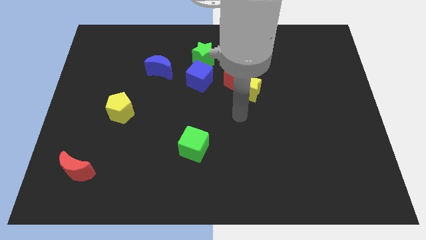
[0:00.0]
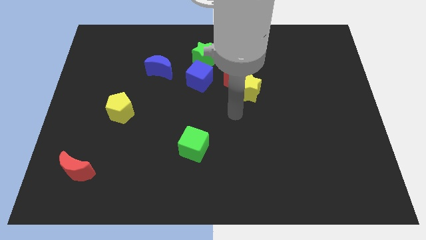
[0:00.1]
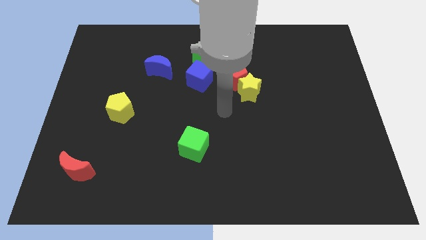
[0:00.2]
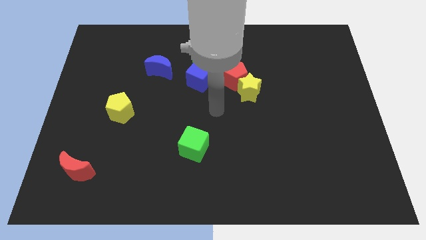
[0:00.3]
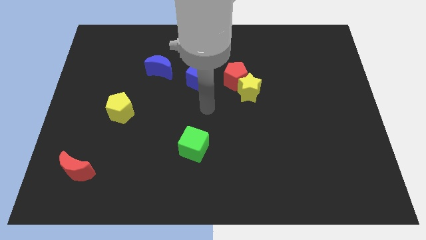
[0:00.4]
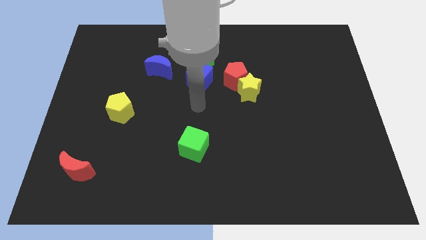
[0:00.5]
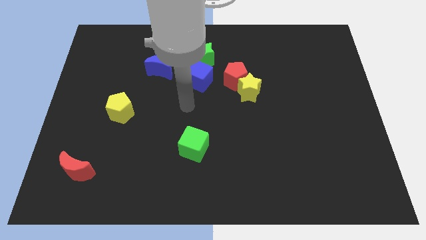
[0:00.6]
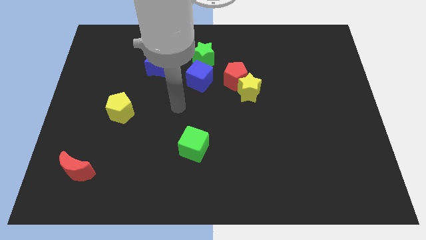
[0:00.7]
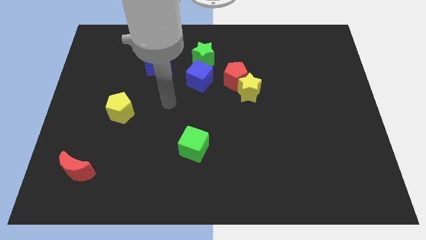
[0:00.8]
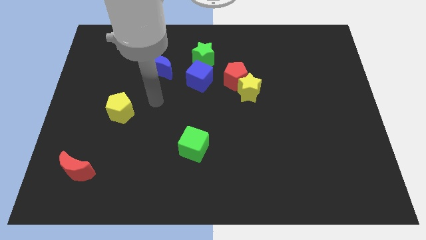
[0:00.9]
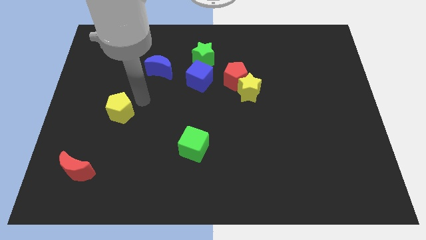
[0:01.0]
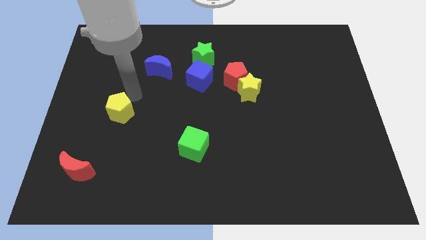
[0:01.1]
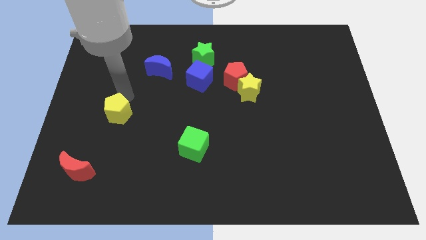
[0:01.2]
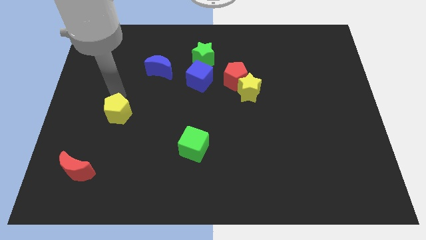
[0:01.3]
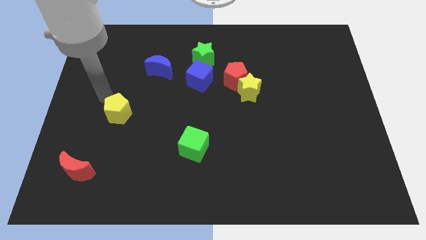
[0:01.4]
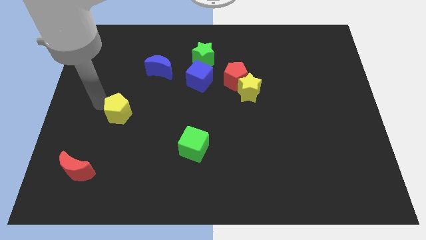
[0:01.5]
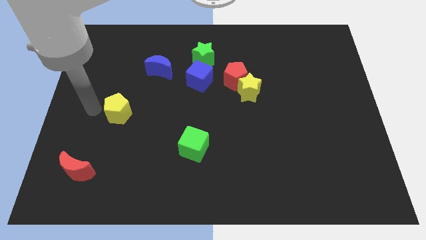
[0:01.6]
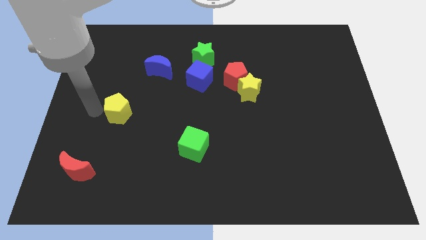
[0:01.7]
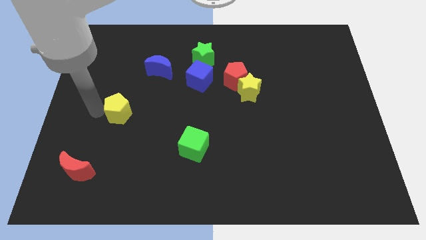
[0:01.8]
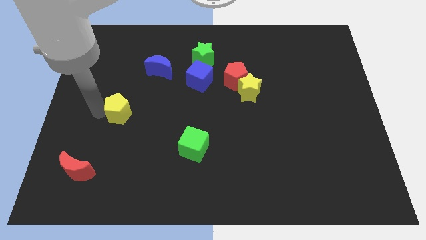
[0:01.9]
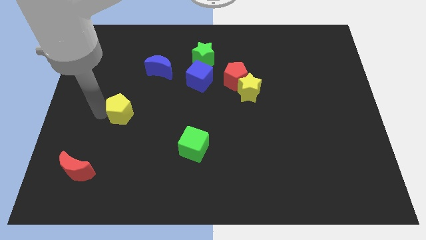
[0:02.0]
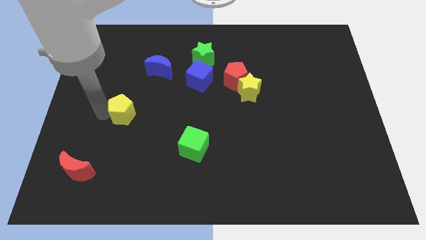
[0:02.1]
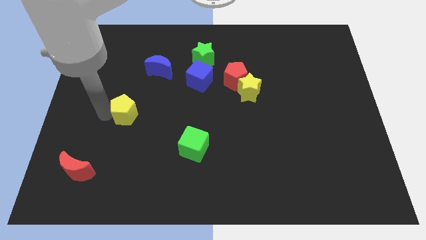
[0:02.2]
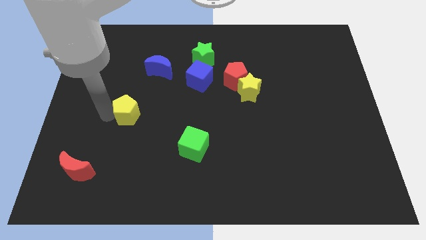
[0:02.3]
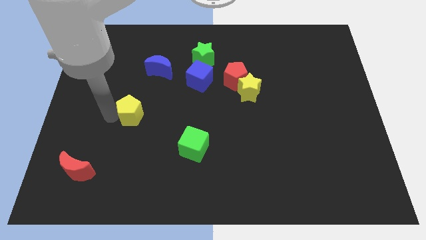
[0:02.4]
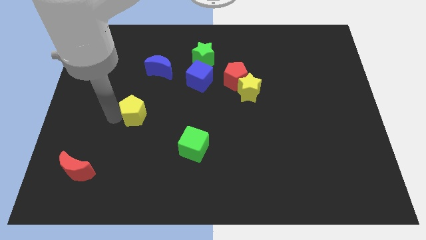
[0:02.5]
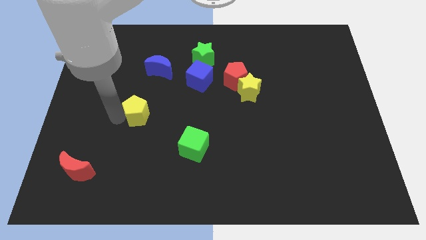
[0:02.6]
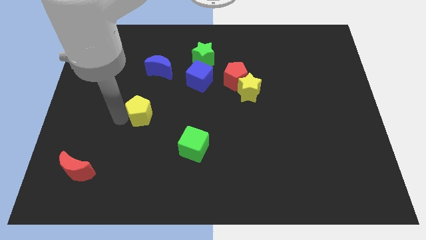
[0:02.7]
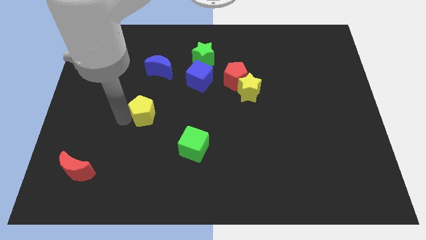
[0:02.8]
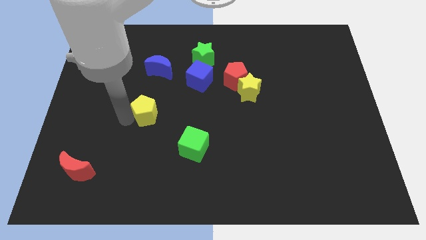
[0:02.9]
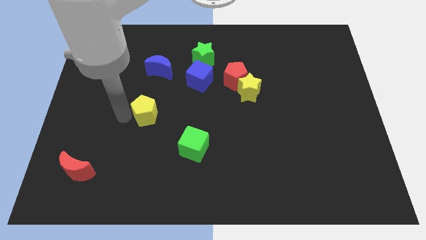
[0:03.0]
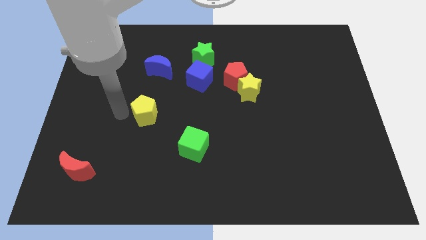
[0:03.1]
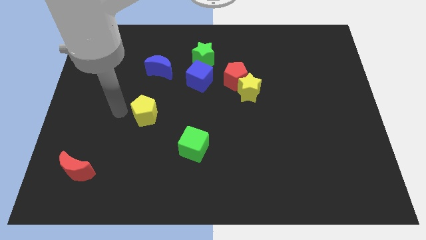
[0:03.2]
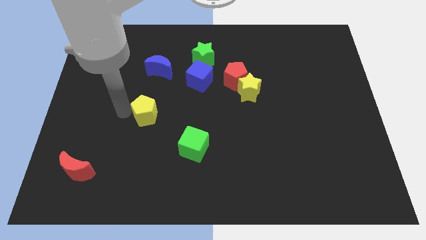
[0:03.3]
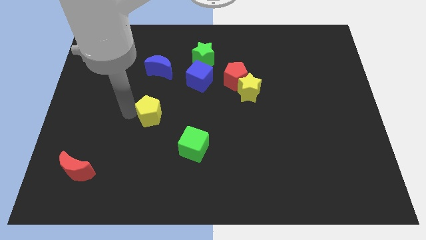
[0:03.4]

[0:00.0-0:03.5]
slightly slide the yellow pentagon to the right

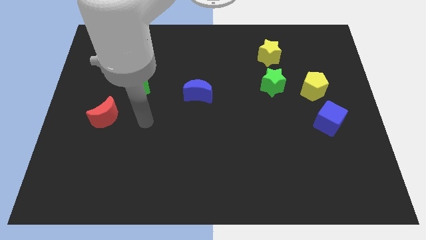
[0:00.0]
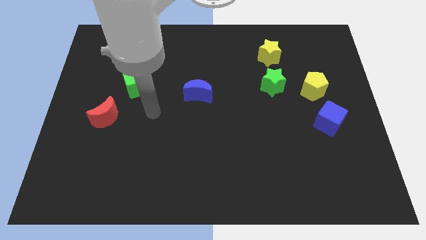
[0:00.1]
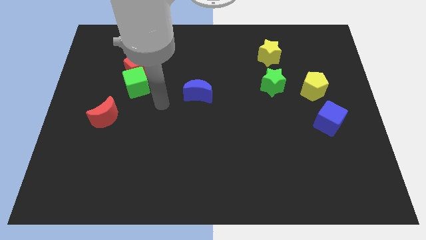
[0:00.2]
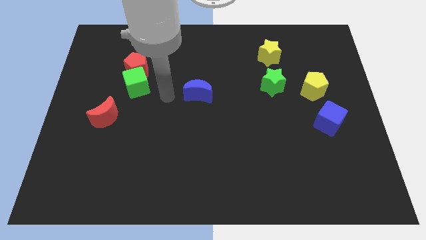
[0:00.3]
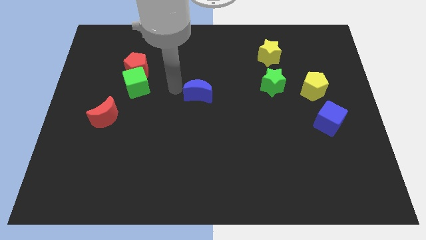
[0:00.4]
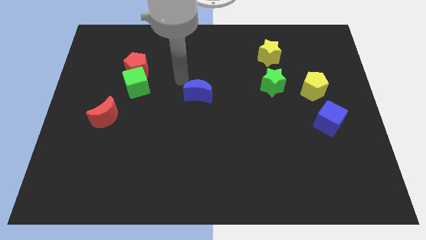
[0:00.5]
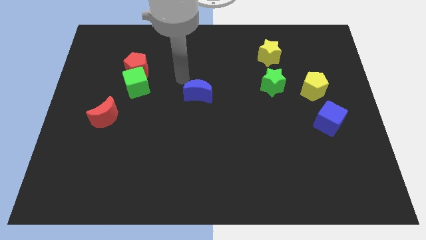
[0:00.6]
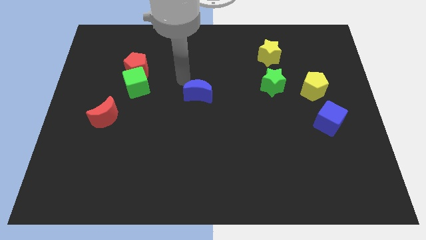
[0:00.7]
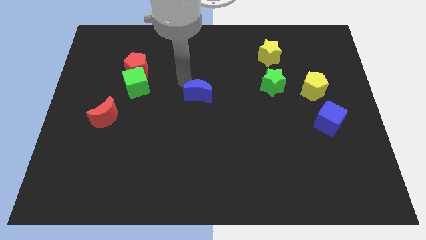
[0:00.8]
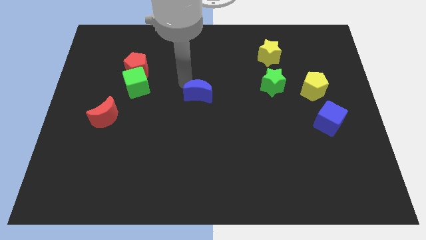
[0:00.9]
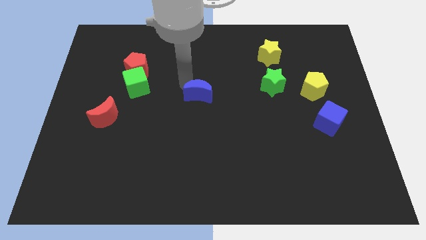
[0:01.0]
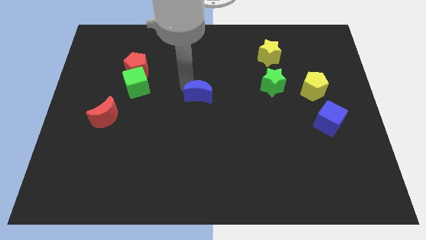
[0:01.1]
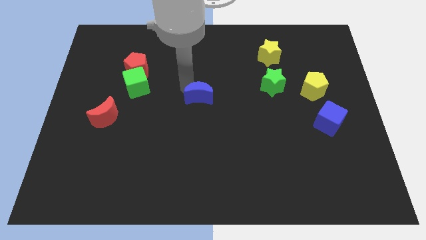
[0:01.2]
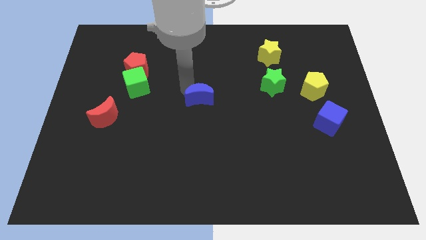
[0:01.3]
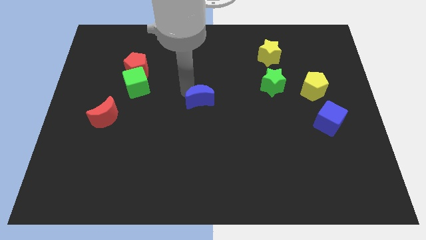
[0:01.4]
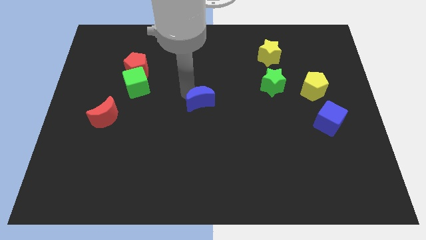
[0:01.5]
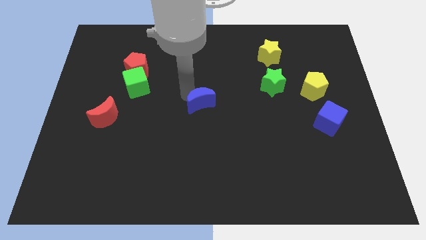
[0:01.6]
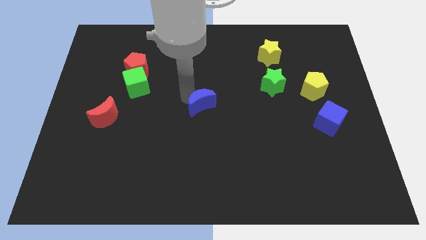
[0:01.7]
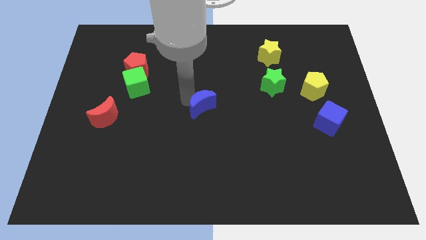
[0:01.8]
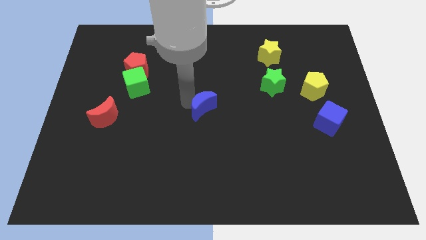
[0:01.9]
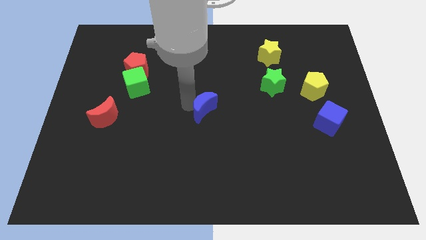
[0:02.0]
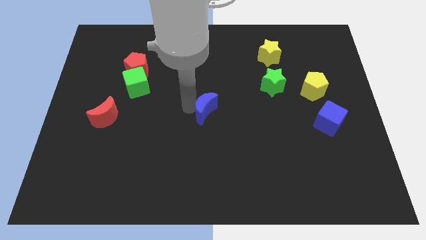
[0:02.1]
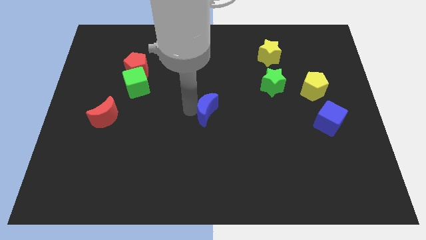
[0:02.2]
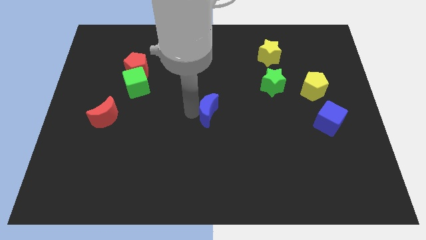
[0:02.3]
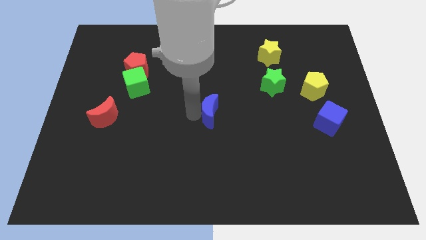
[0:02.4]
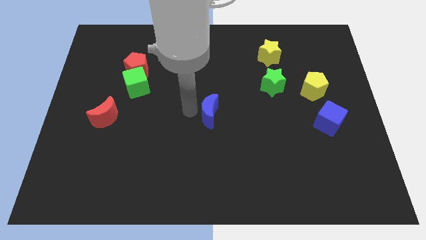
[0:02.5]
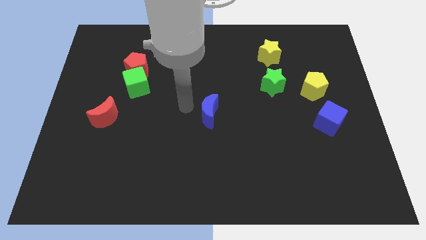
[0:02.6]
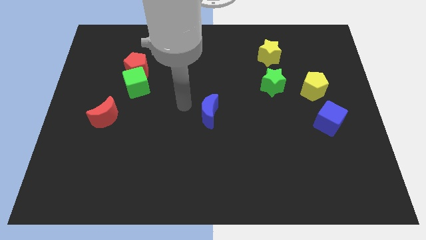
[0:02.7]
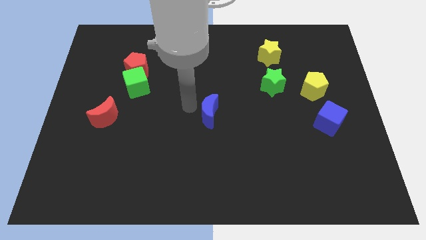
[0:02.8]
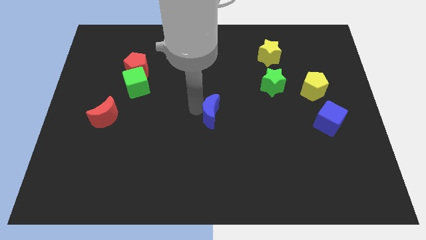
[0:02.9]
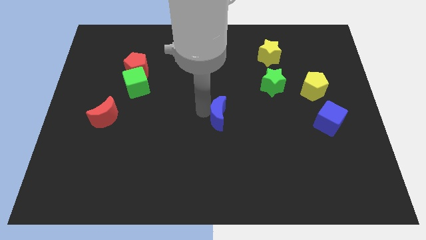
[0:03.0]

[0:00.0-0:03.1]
slightly push the blue moon down and to the right

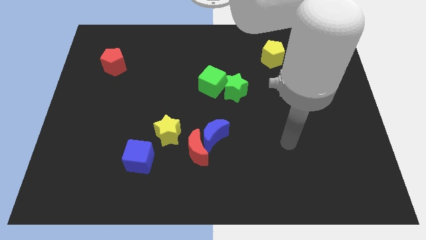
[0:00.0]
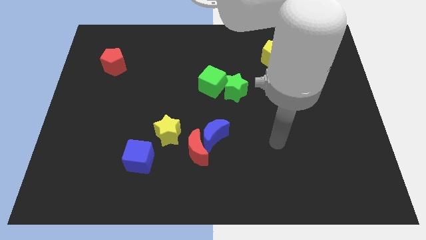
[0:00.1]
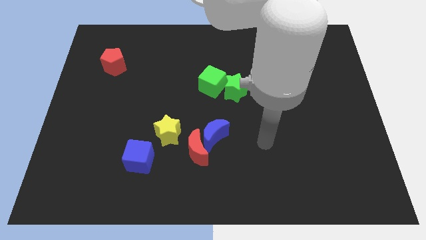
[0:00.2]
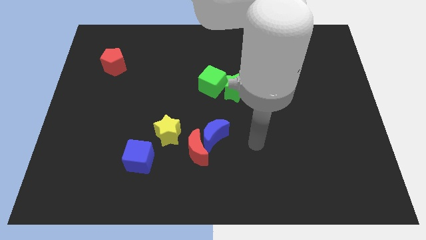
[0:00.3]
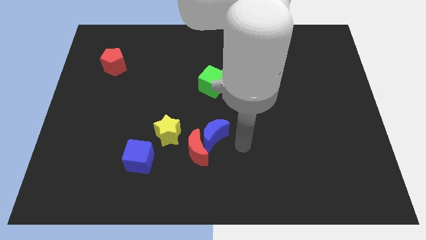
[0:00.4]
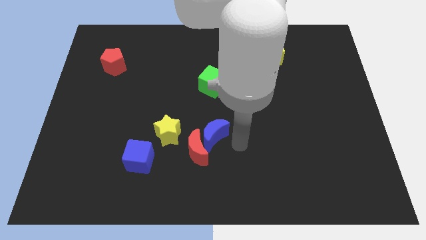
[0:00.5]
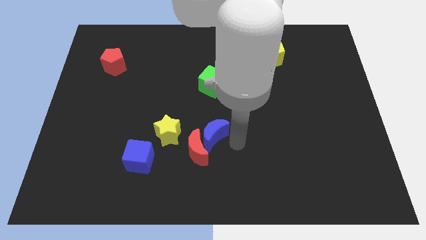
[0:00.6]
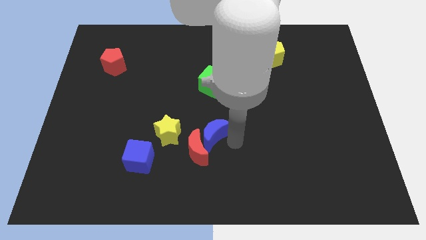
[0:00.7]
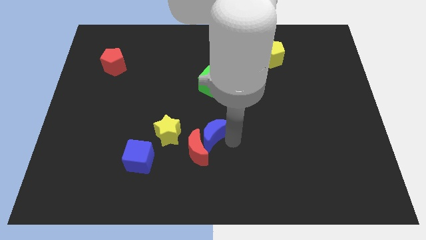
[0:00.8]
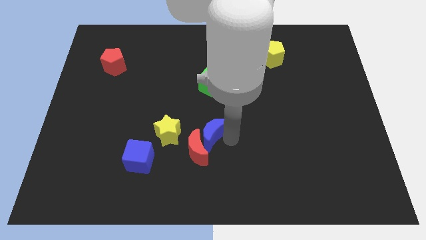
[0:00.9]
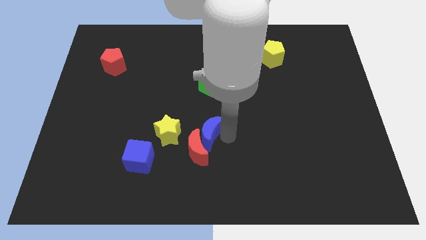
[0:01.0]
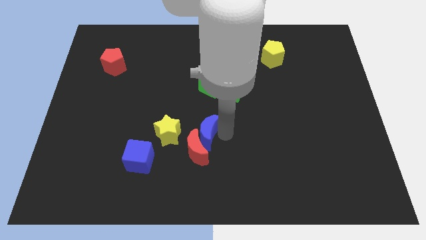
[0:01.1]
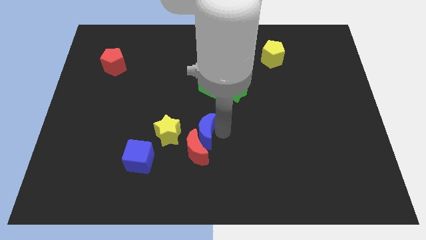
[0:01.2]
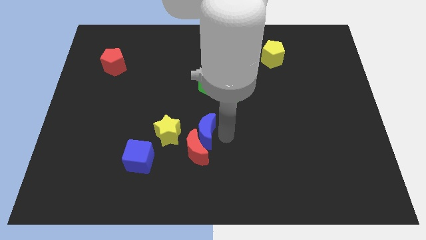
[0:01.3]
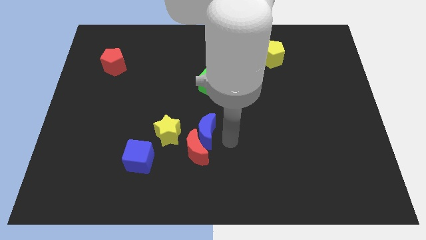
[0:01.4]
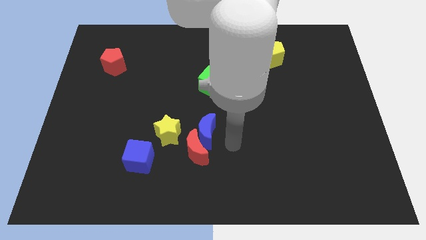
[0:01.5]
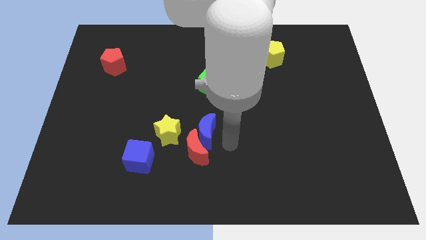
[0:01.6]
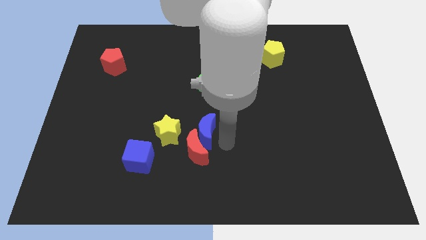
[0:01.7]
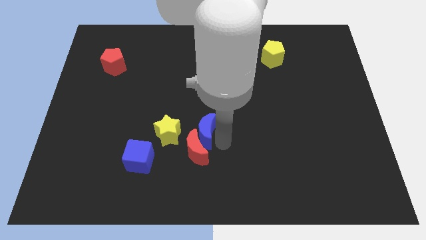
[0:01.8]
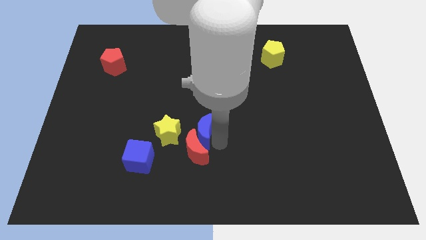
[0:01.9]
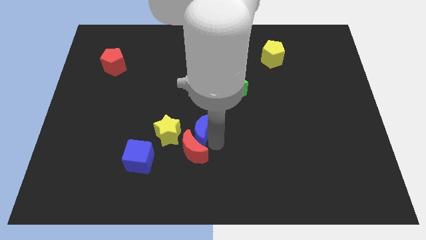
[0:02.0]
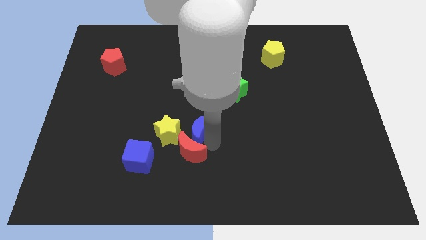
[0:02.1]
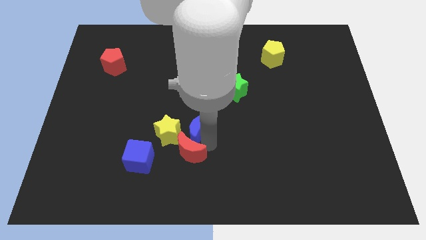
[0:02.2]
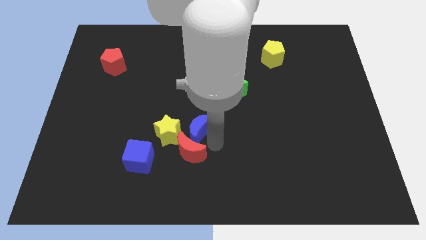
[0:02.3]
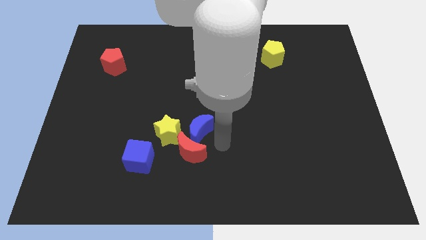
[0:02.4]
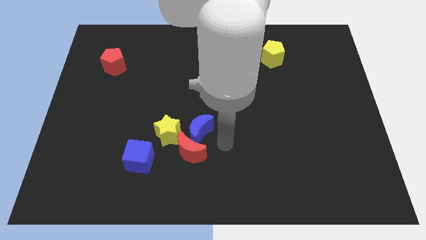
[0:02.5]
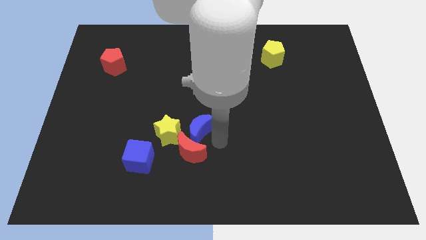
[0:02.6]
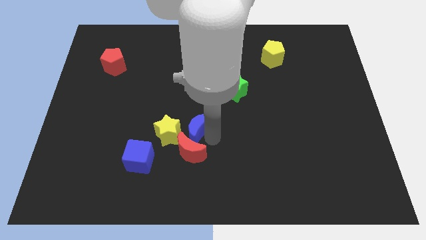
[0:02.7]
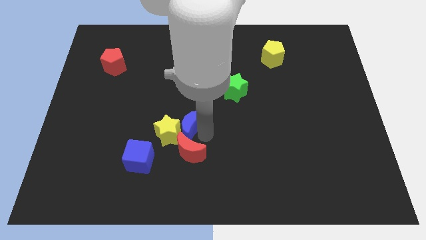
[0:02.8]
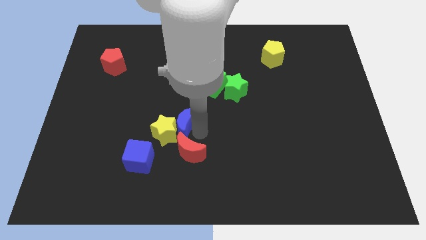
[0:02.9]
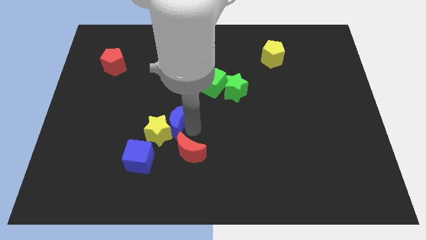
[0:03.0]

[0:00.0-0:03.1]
slightly push the blue moon to the left
